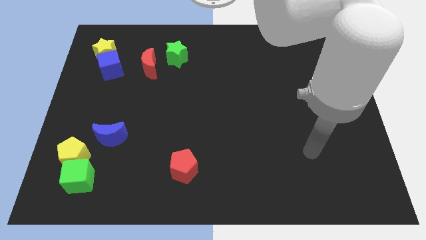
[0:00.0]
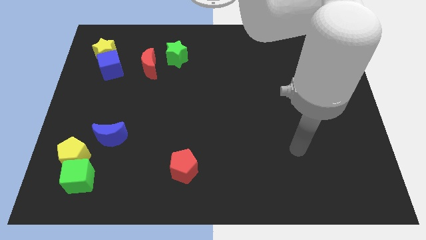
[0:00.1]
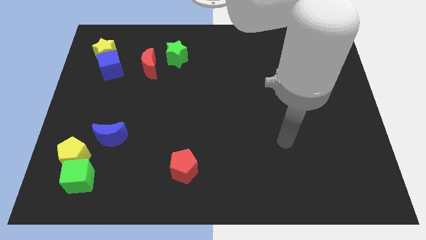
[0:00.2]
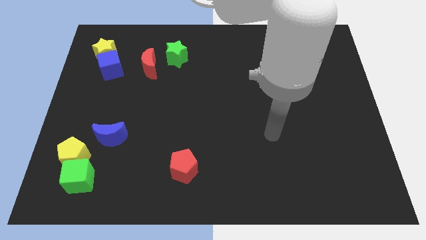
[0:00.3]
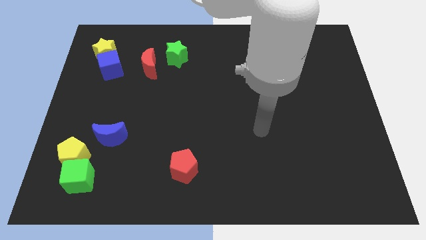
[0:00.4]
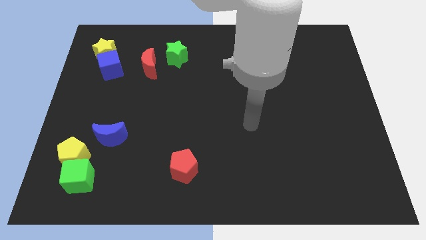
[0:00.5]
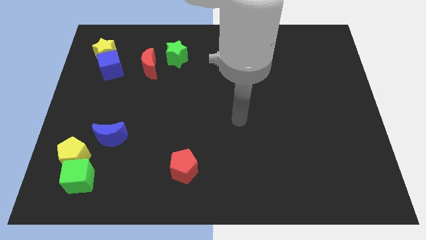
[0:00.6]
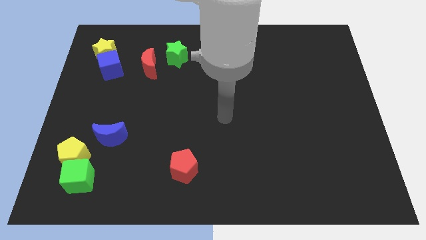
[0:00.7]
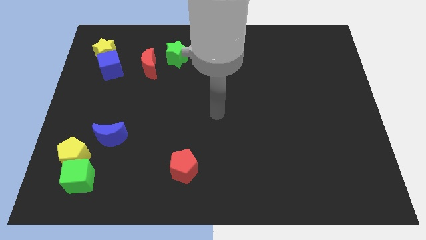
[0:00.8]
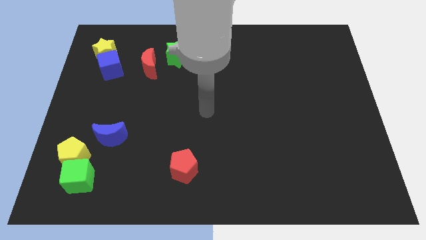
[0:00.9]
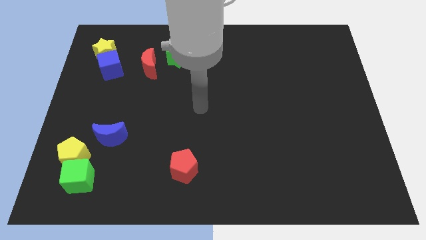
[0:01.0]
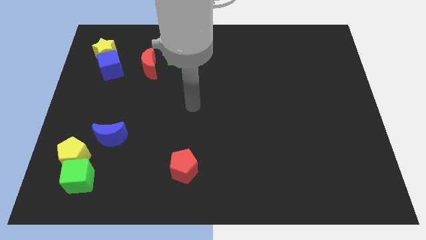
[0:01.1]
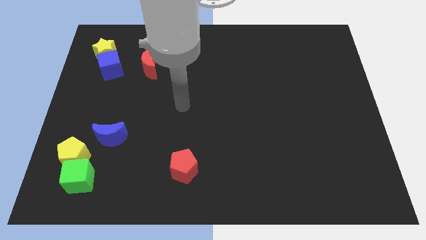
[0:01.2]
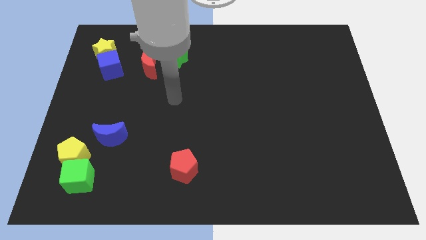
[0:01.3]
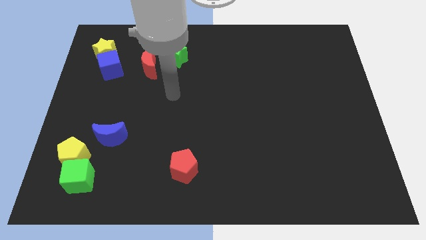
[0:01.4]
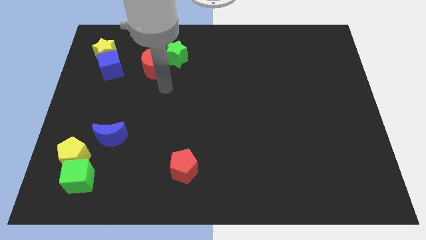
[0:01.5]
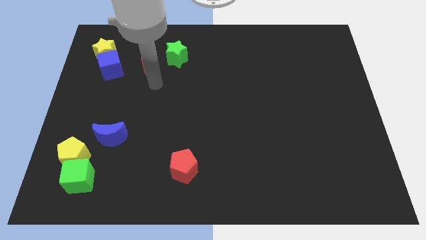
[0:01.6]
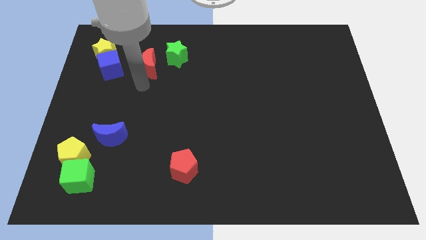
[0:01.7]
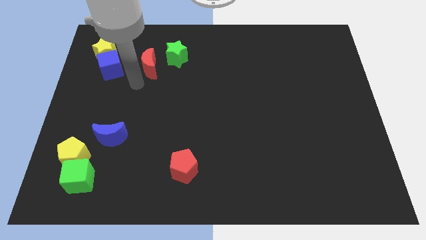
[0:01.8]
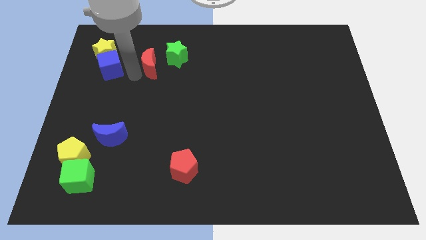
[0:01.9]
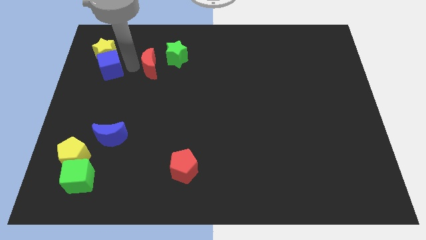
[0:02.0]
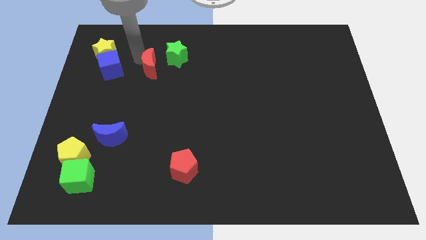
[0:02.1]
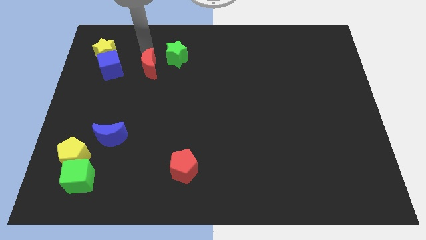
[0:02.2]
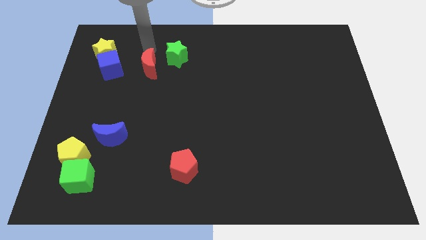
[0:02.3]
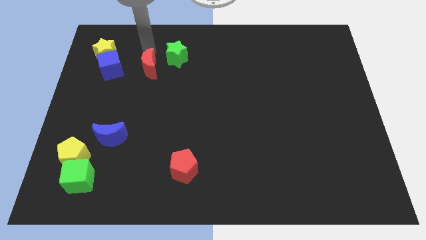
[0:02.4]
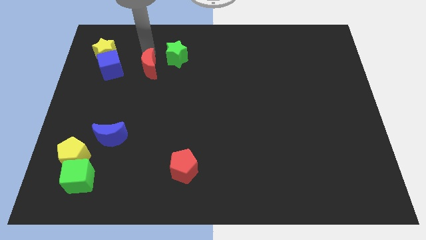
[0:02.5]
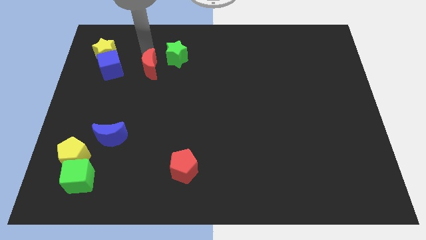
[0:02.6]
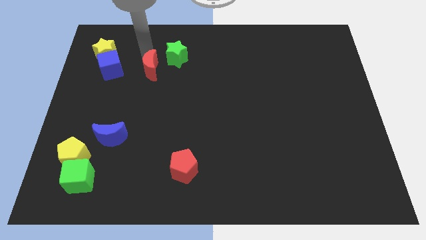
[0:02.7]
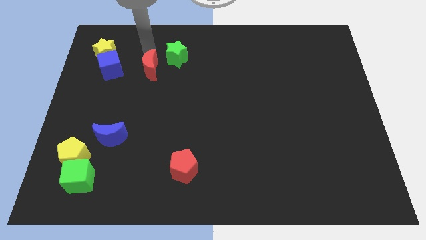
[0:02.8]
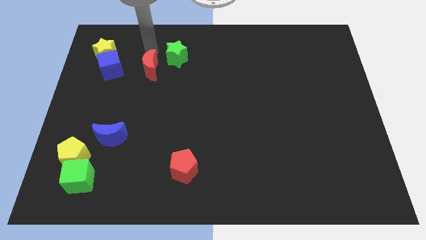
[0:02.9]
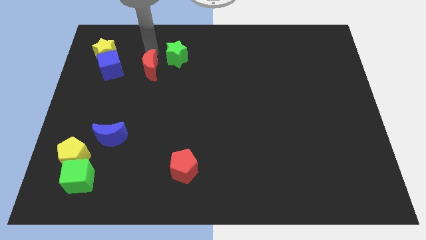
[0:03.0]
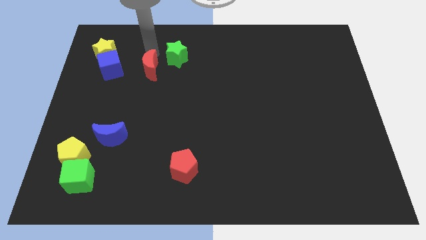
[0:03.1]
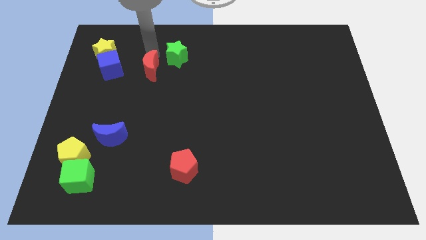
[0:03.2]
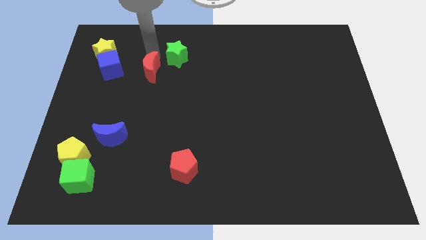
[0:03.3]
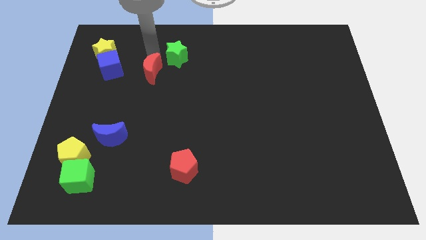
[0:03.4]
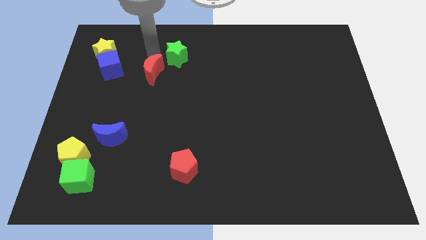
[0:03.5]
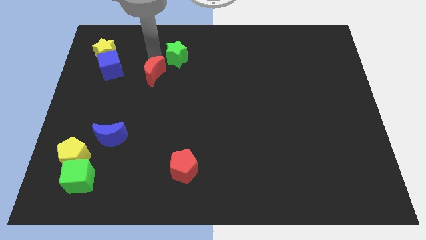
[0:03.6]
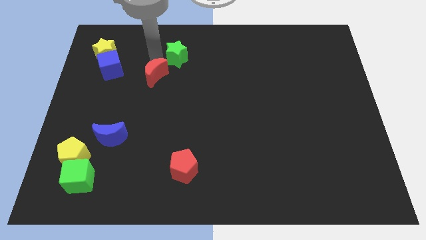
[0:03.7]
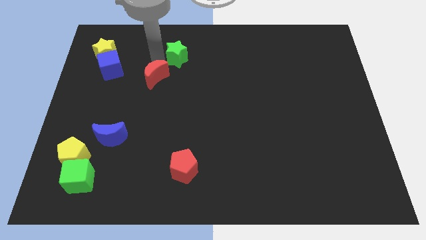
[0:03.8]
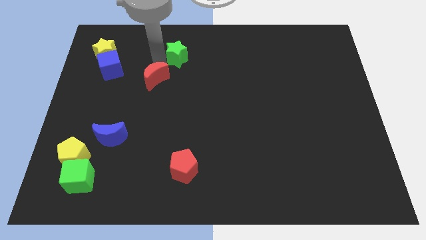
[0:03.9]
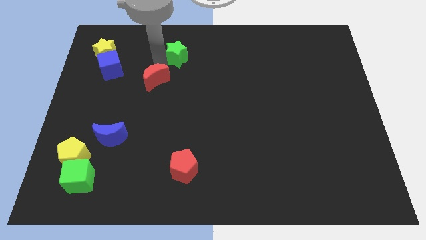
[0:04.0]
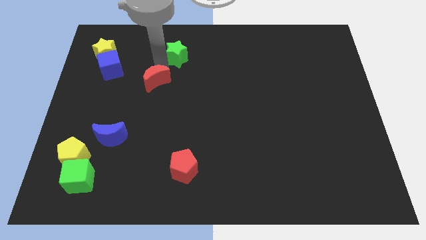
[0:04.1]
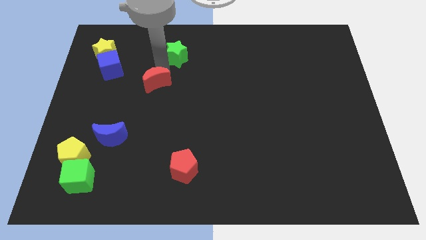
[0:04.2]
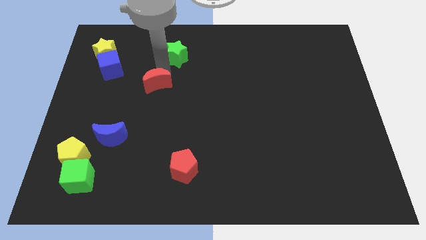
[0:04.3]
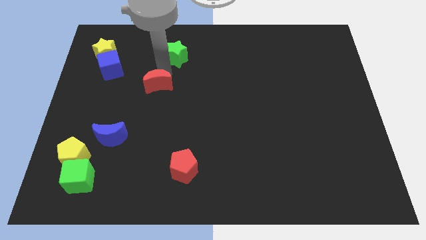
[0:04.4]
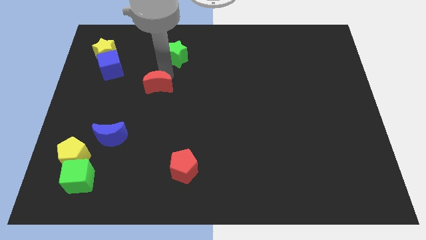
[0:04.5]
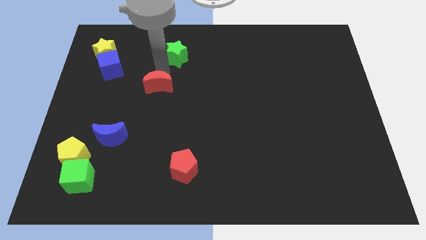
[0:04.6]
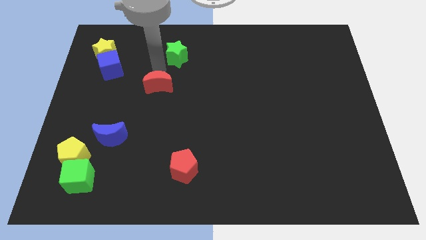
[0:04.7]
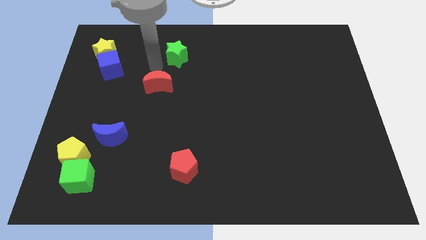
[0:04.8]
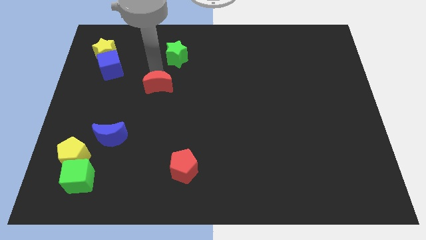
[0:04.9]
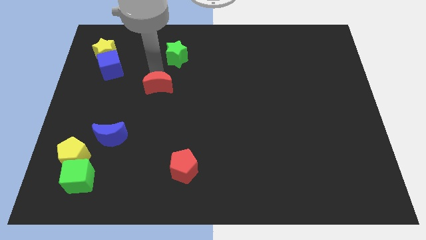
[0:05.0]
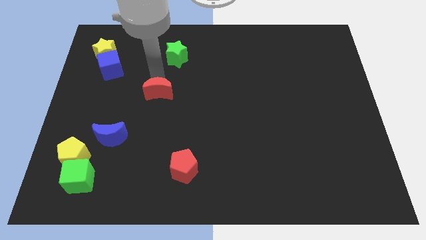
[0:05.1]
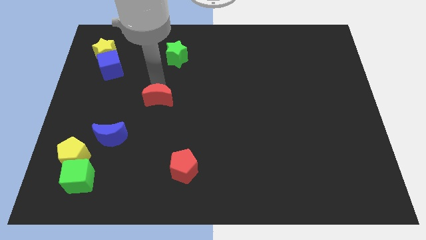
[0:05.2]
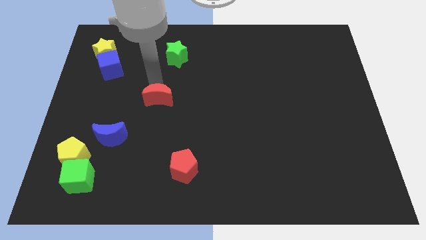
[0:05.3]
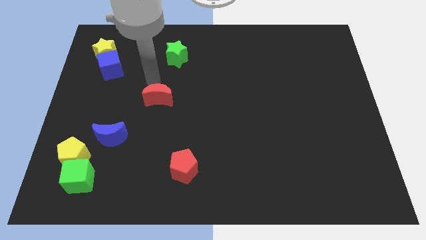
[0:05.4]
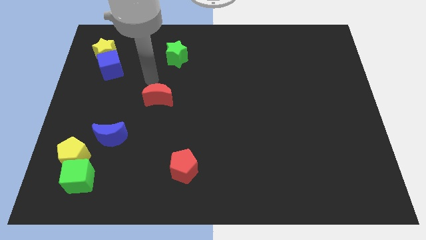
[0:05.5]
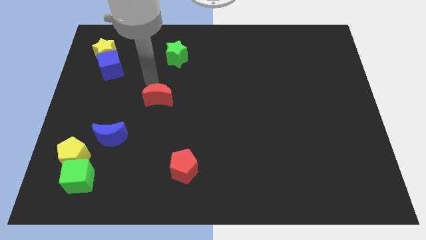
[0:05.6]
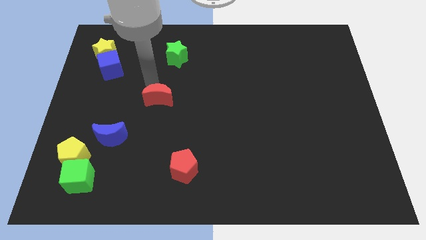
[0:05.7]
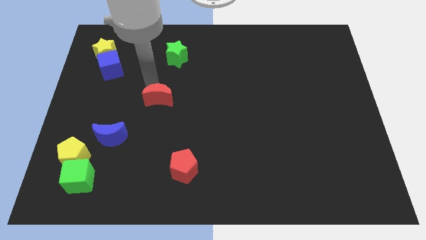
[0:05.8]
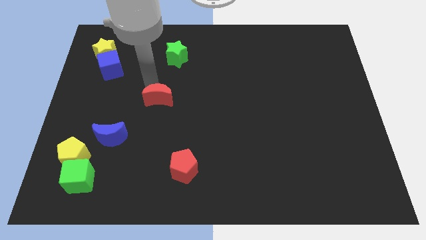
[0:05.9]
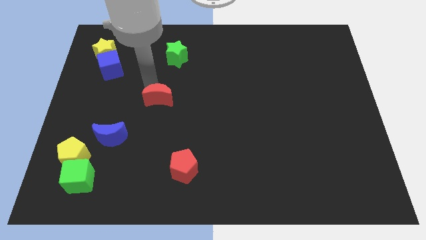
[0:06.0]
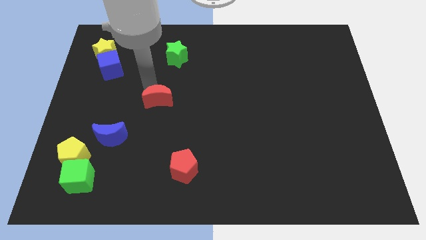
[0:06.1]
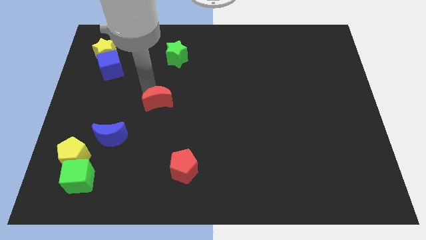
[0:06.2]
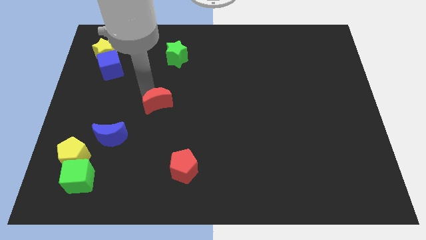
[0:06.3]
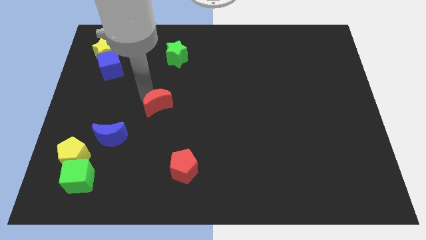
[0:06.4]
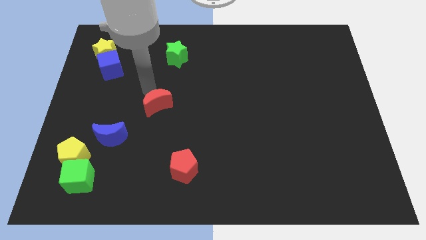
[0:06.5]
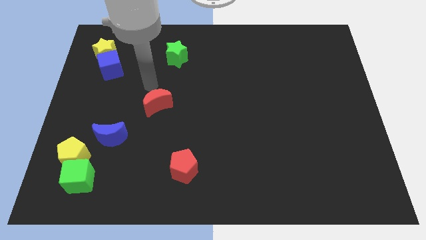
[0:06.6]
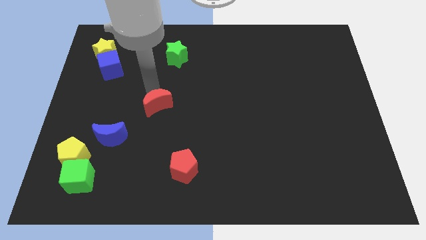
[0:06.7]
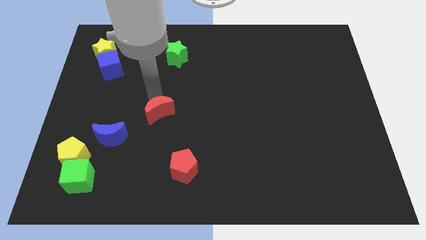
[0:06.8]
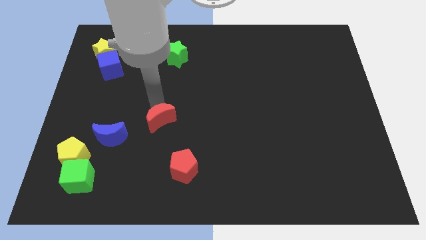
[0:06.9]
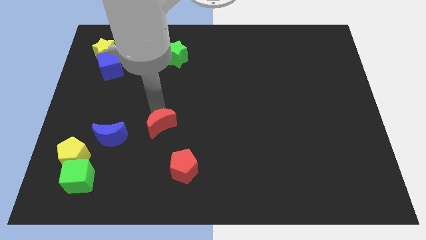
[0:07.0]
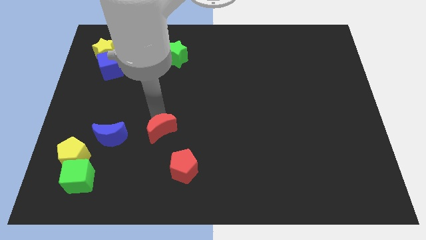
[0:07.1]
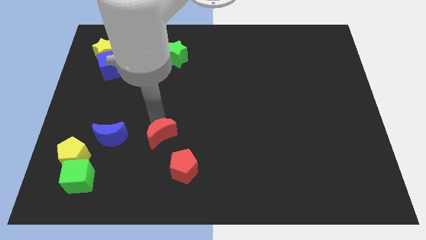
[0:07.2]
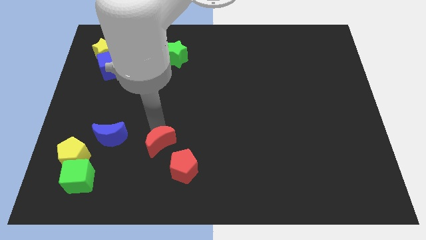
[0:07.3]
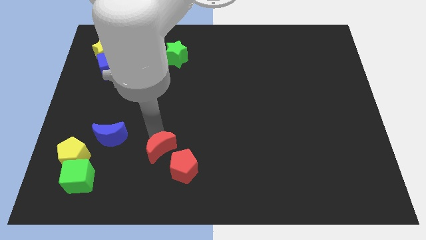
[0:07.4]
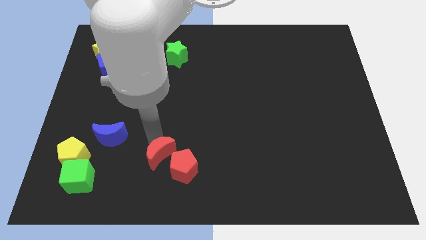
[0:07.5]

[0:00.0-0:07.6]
move the red moon towards the red pentagon

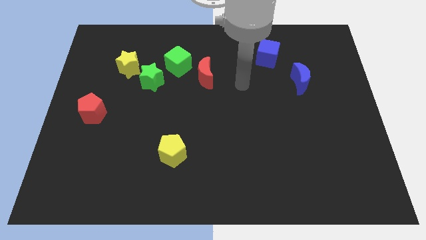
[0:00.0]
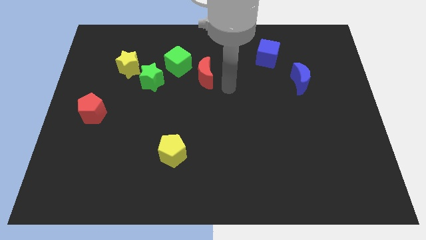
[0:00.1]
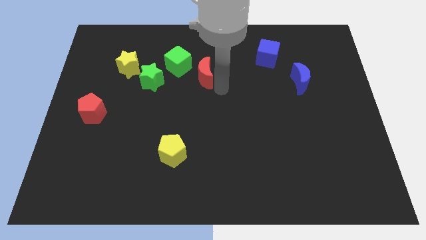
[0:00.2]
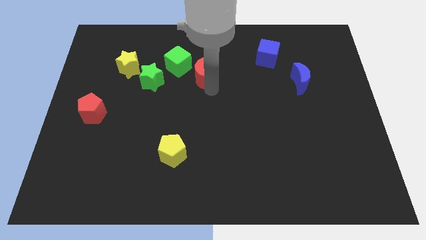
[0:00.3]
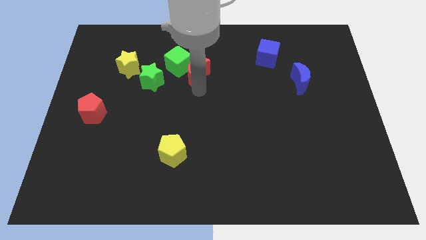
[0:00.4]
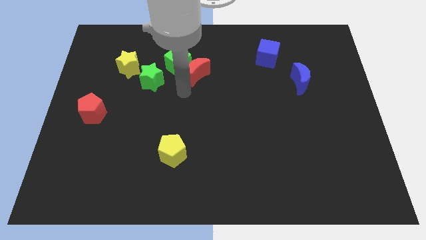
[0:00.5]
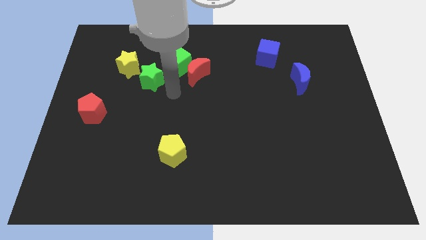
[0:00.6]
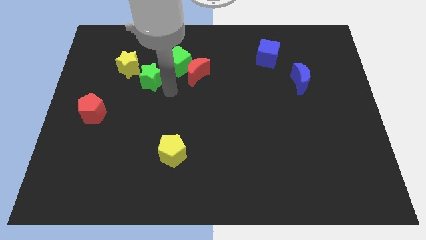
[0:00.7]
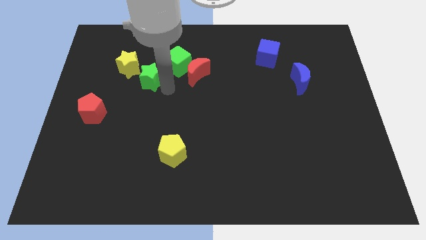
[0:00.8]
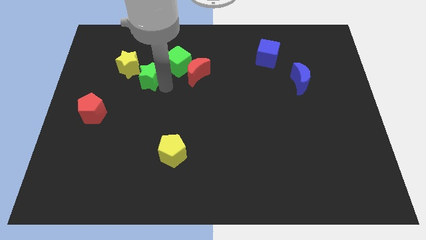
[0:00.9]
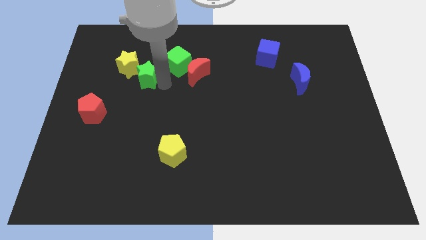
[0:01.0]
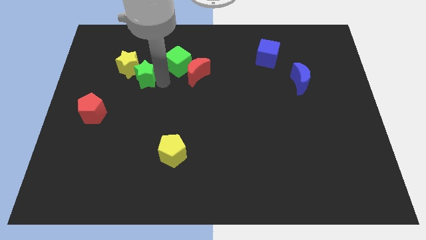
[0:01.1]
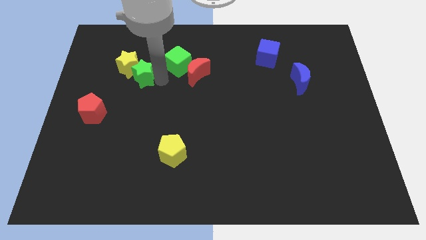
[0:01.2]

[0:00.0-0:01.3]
put the green star next to the yellow star
